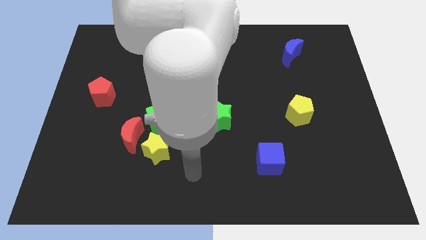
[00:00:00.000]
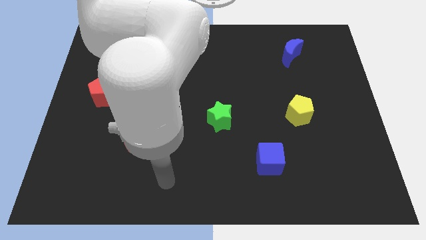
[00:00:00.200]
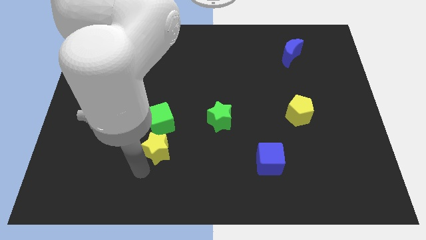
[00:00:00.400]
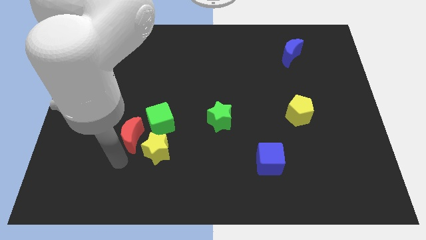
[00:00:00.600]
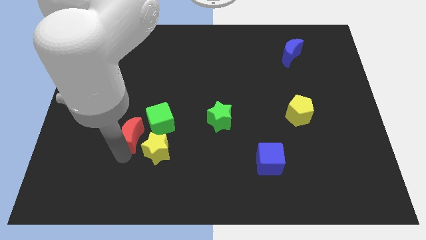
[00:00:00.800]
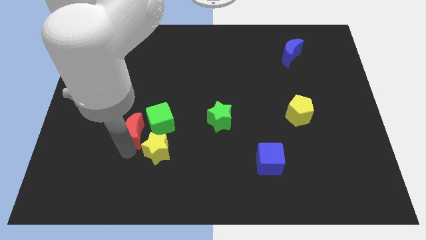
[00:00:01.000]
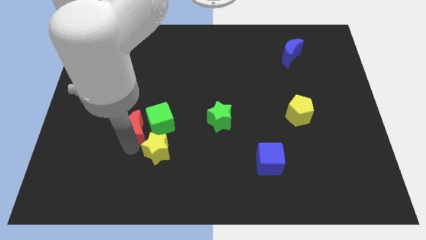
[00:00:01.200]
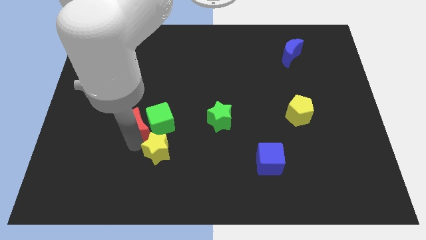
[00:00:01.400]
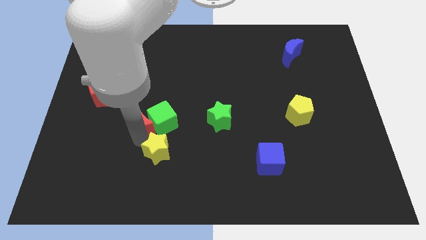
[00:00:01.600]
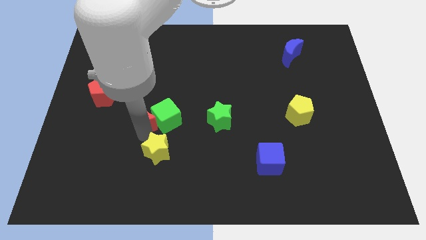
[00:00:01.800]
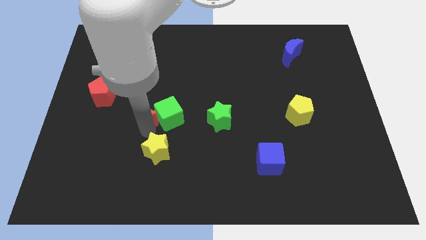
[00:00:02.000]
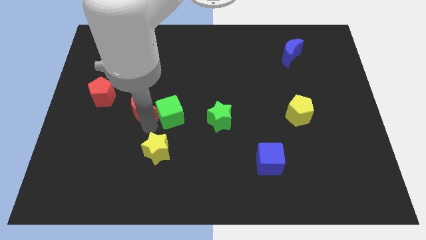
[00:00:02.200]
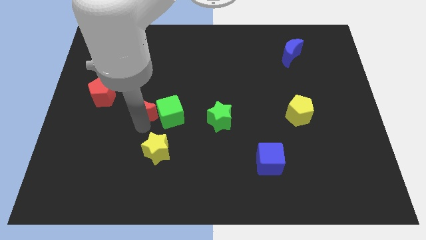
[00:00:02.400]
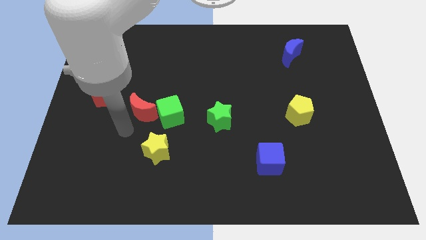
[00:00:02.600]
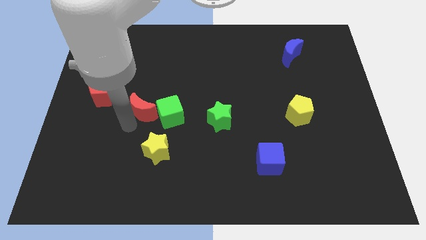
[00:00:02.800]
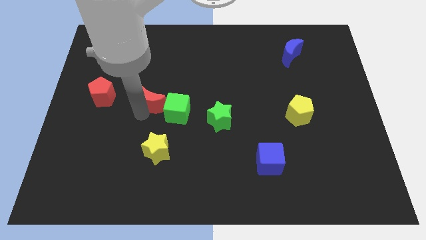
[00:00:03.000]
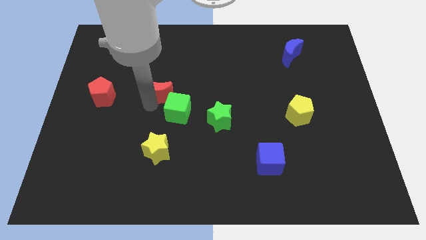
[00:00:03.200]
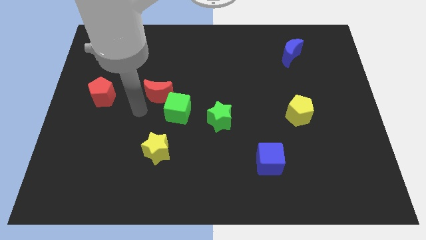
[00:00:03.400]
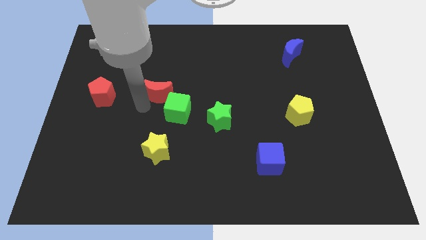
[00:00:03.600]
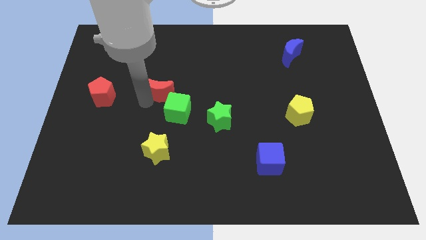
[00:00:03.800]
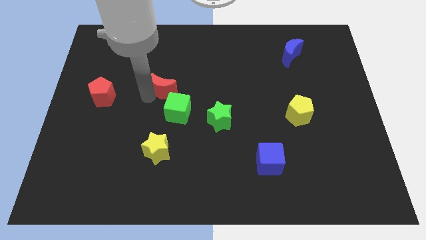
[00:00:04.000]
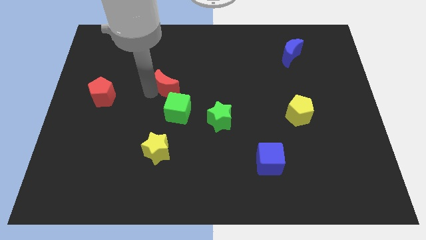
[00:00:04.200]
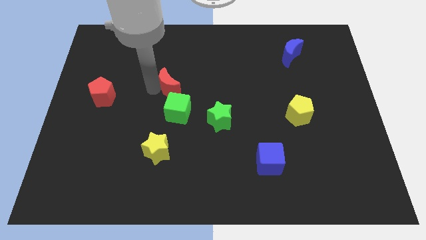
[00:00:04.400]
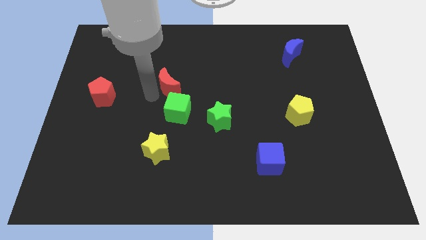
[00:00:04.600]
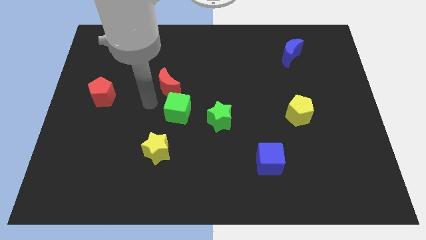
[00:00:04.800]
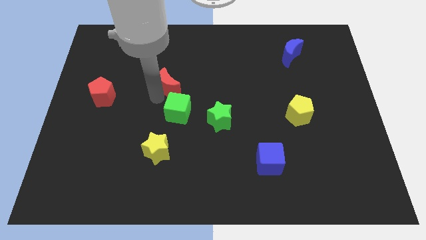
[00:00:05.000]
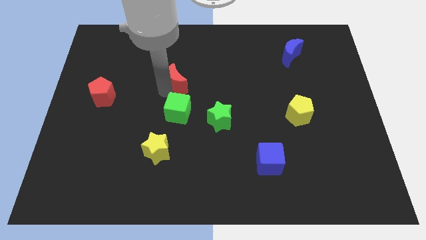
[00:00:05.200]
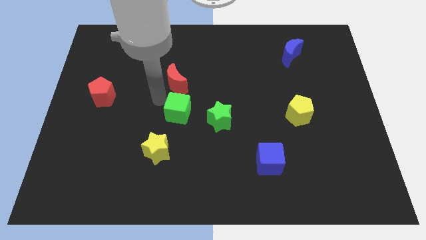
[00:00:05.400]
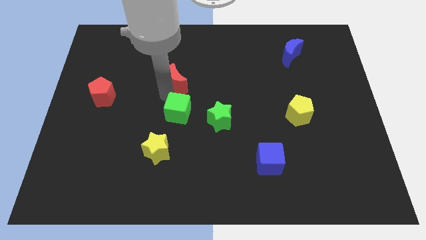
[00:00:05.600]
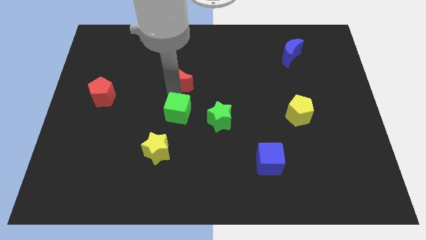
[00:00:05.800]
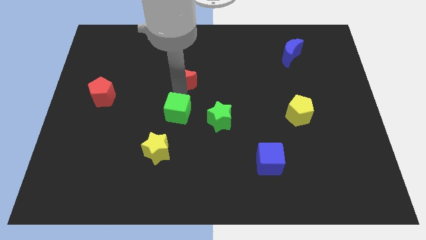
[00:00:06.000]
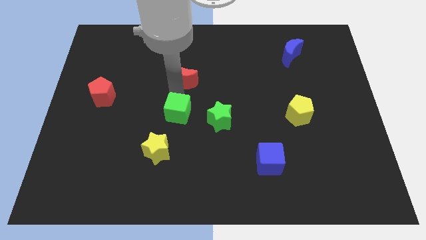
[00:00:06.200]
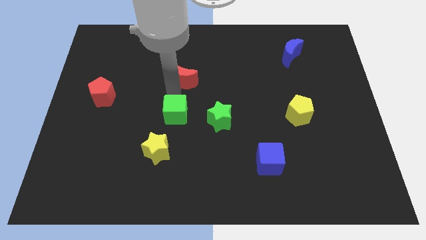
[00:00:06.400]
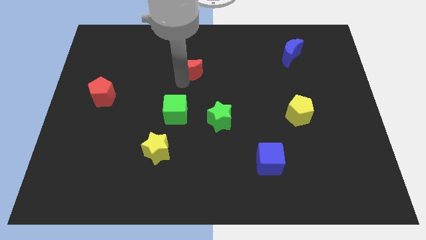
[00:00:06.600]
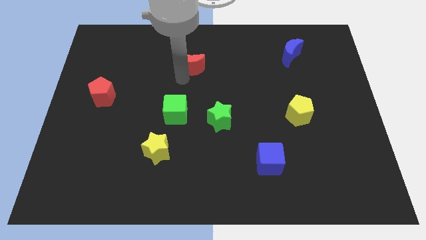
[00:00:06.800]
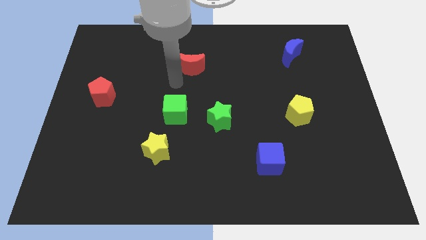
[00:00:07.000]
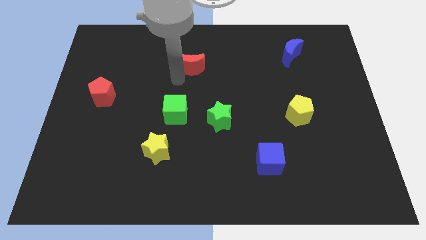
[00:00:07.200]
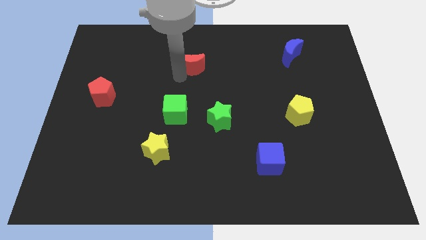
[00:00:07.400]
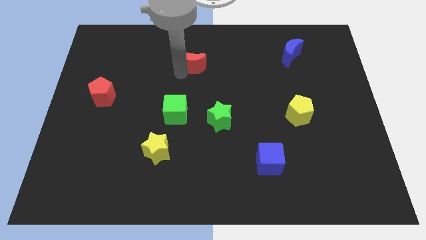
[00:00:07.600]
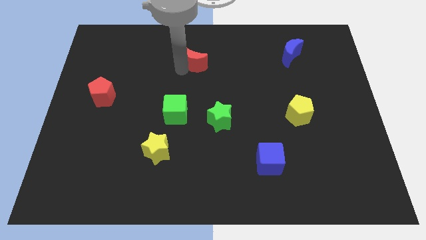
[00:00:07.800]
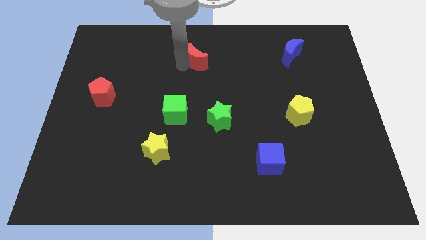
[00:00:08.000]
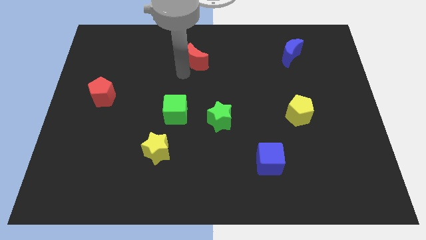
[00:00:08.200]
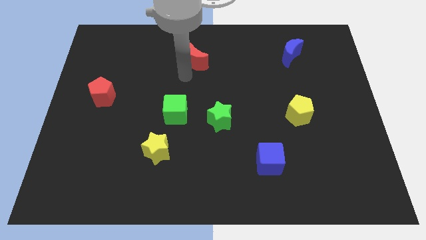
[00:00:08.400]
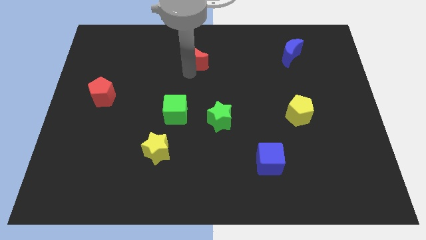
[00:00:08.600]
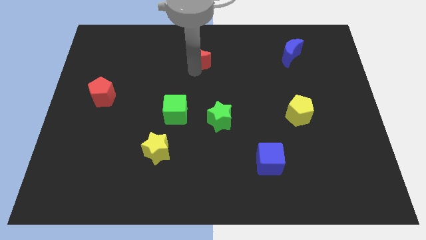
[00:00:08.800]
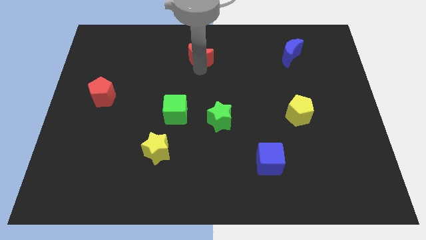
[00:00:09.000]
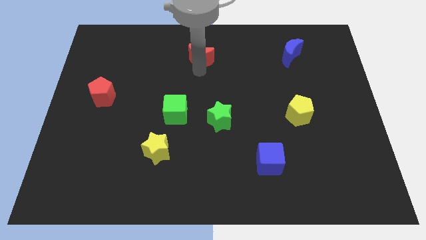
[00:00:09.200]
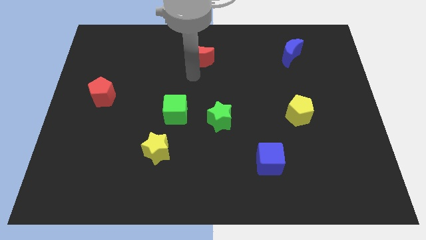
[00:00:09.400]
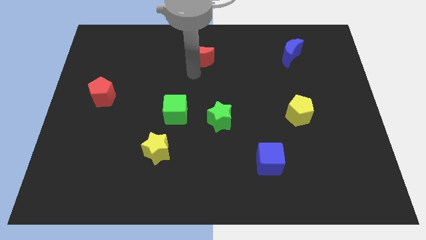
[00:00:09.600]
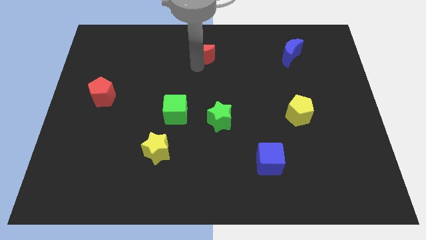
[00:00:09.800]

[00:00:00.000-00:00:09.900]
put the red moon to the top

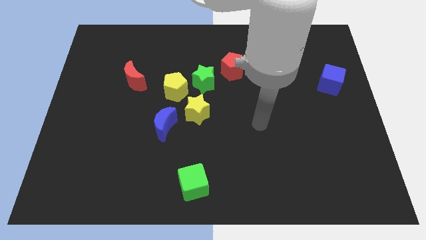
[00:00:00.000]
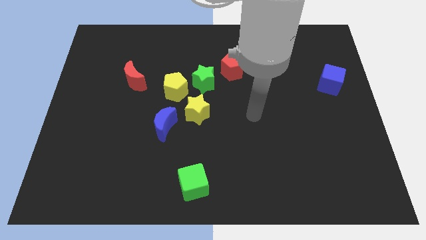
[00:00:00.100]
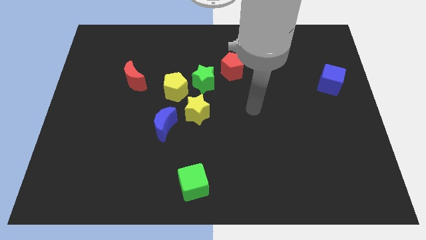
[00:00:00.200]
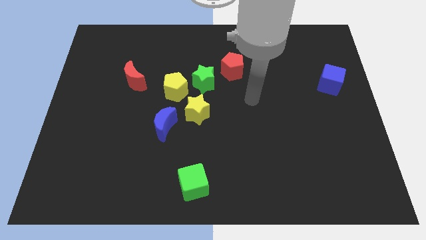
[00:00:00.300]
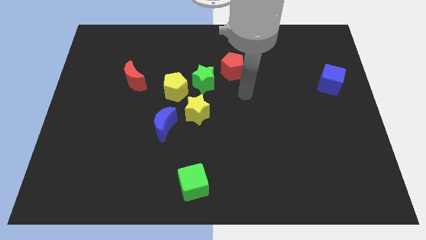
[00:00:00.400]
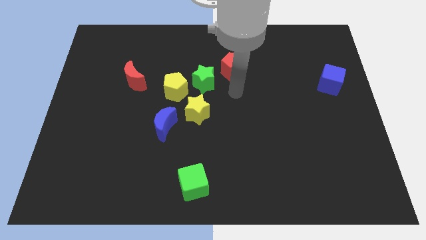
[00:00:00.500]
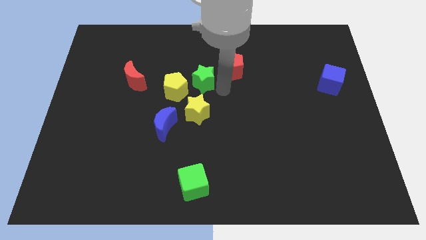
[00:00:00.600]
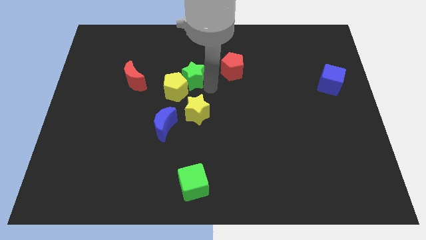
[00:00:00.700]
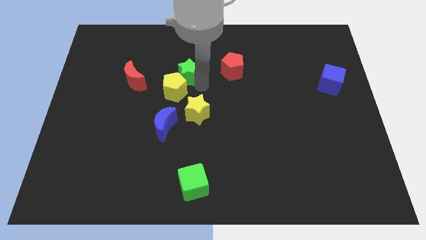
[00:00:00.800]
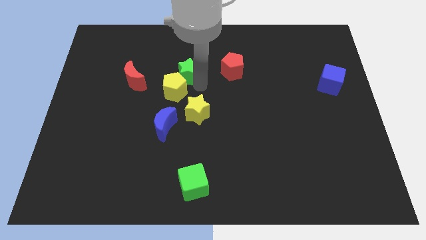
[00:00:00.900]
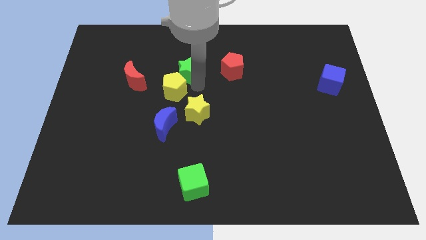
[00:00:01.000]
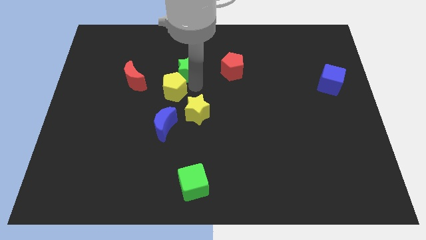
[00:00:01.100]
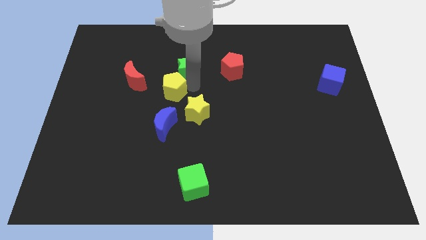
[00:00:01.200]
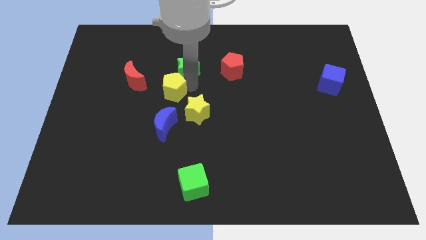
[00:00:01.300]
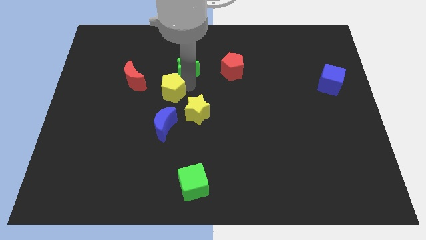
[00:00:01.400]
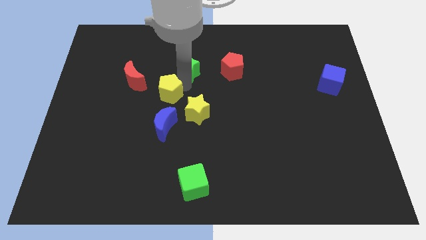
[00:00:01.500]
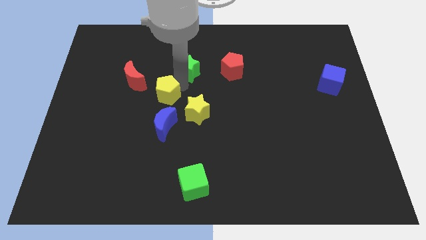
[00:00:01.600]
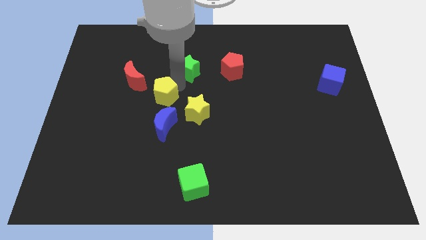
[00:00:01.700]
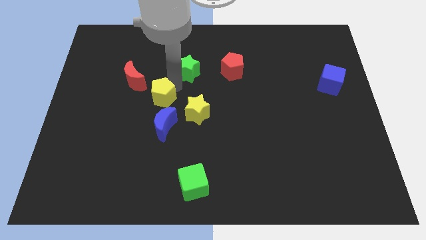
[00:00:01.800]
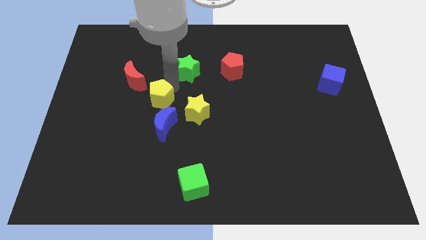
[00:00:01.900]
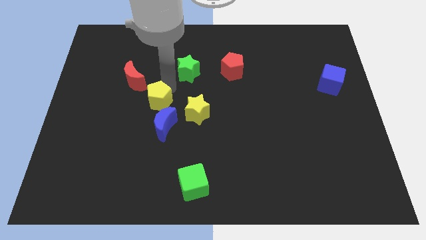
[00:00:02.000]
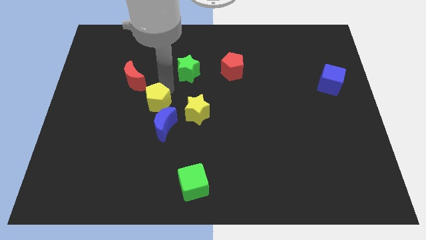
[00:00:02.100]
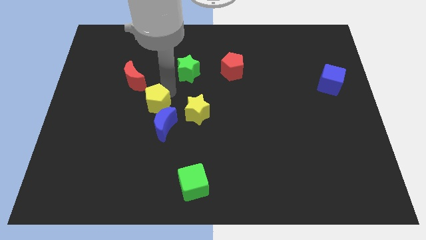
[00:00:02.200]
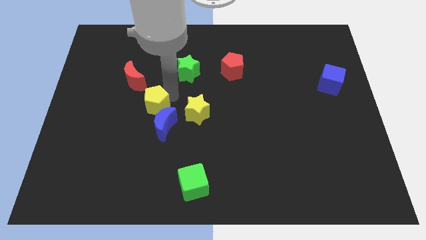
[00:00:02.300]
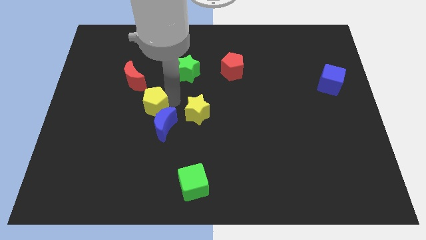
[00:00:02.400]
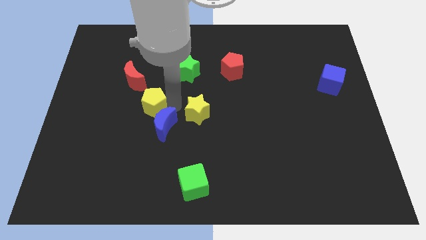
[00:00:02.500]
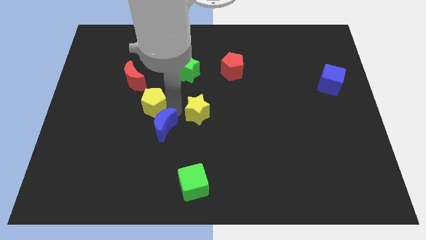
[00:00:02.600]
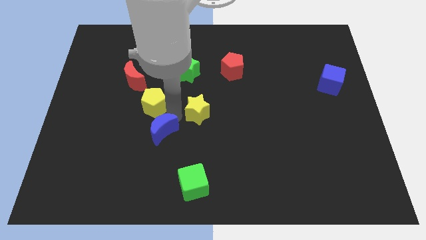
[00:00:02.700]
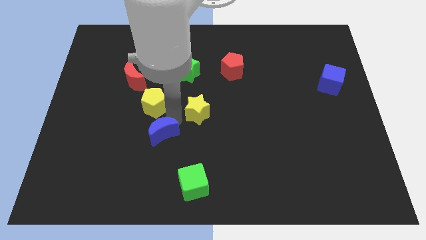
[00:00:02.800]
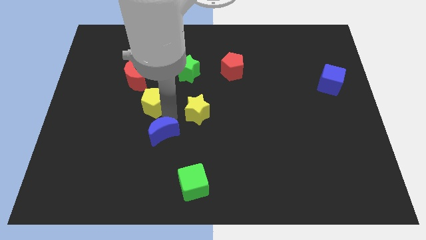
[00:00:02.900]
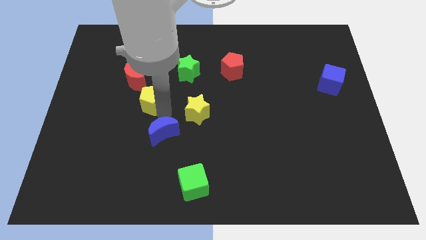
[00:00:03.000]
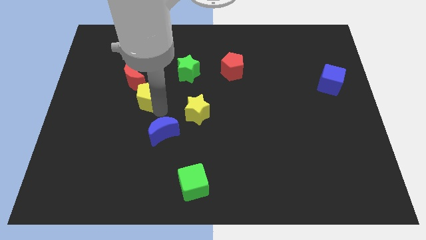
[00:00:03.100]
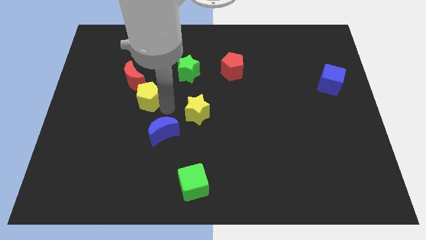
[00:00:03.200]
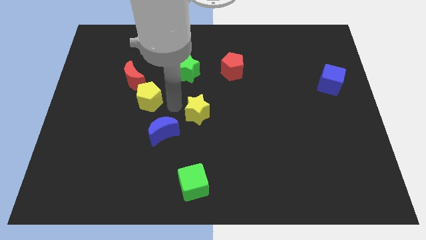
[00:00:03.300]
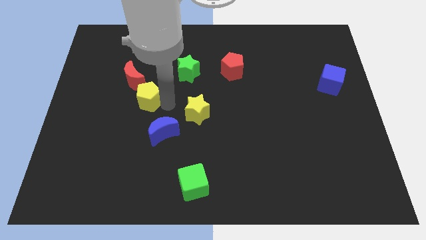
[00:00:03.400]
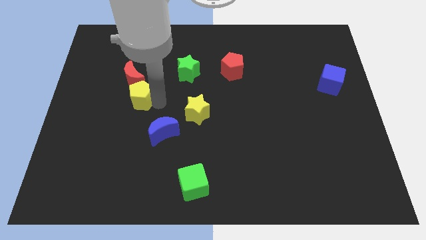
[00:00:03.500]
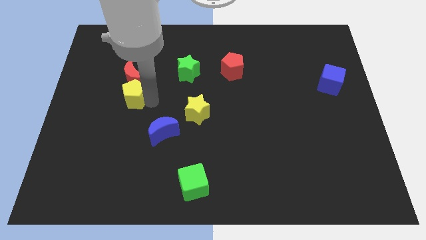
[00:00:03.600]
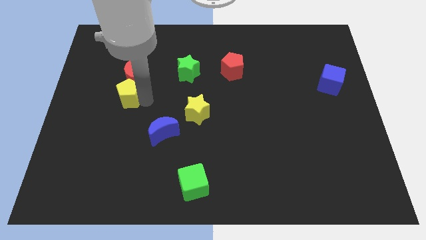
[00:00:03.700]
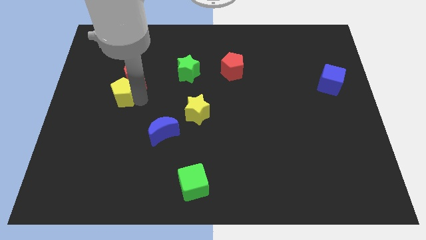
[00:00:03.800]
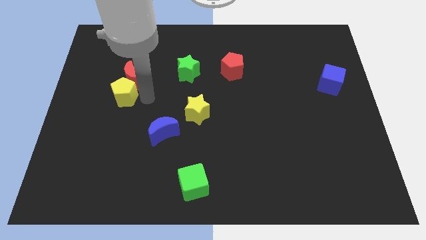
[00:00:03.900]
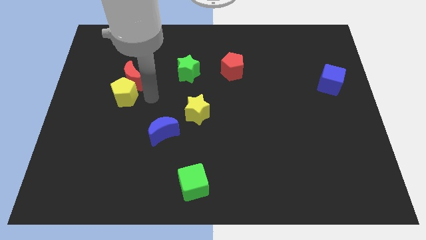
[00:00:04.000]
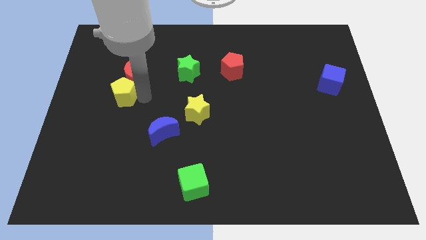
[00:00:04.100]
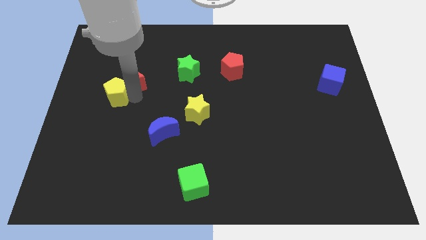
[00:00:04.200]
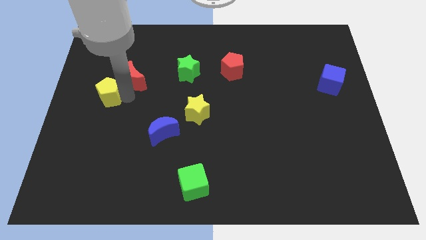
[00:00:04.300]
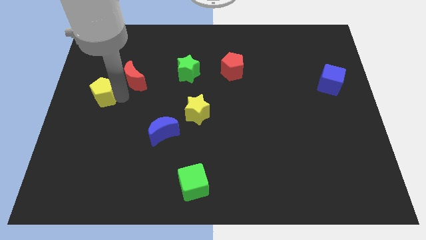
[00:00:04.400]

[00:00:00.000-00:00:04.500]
put the yellow pentagon to the left side of the board
